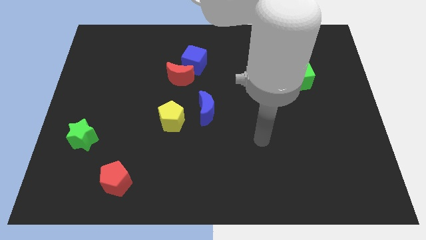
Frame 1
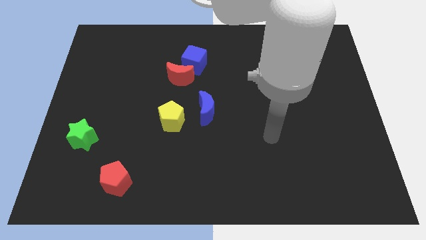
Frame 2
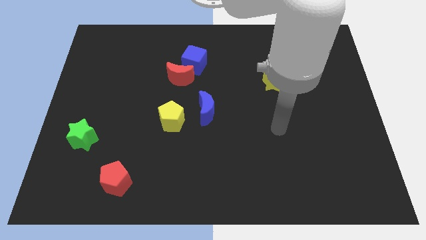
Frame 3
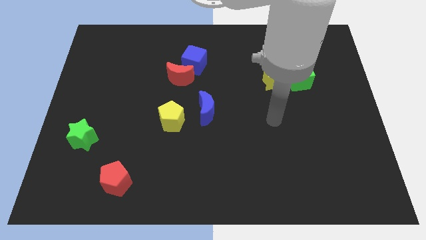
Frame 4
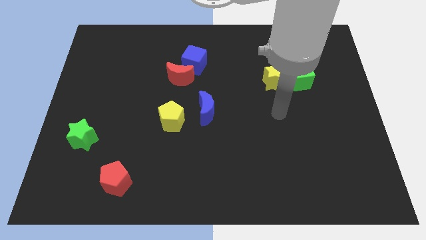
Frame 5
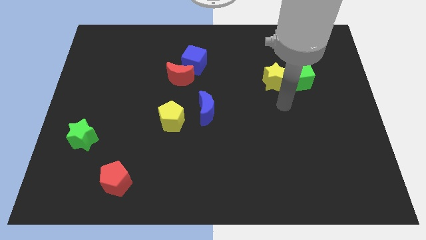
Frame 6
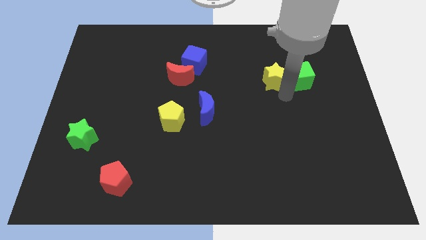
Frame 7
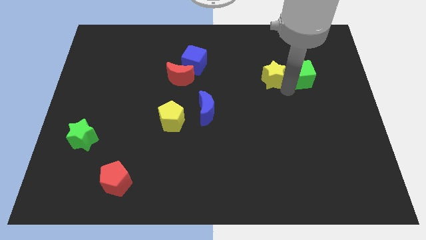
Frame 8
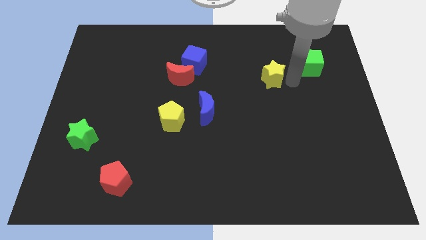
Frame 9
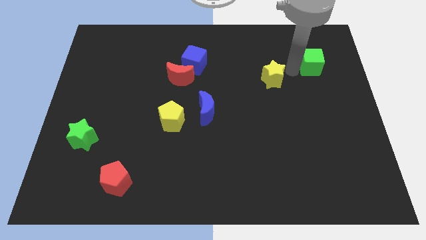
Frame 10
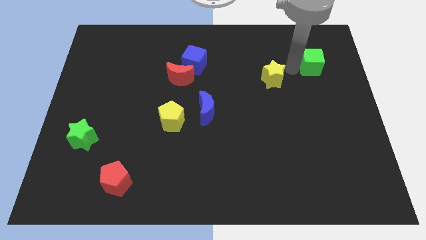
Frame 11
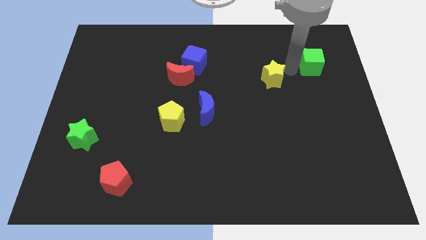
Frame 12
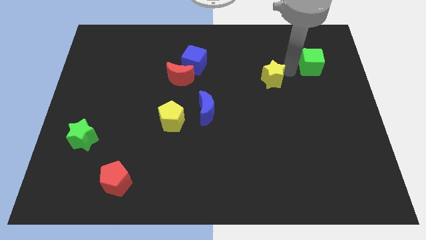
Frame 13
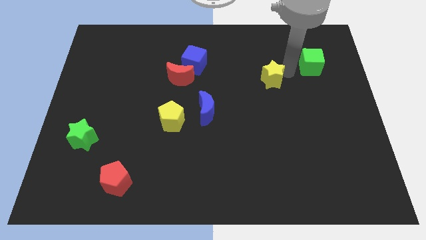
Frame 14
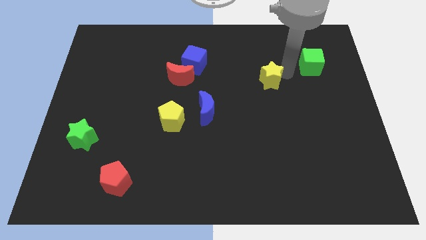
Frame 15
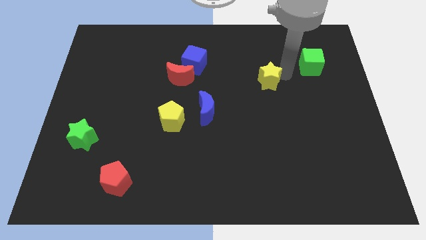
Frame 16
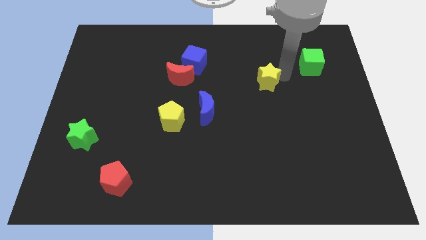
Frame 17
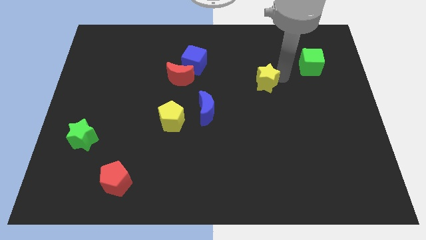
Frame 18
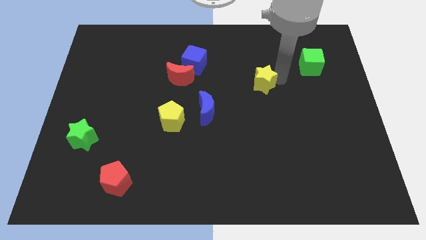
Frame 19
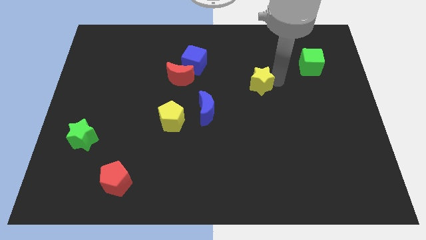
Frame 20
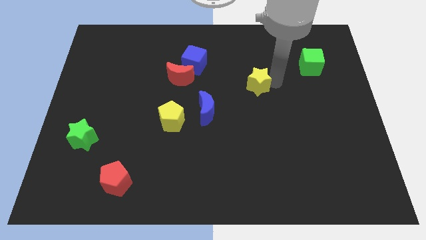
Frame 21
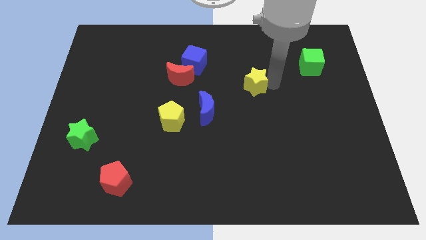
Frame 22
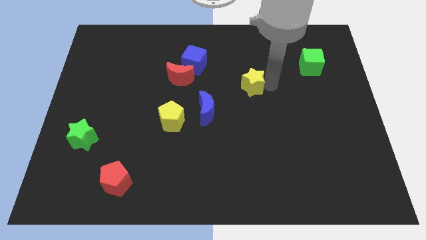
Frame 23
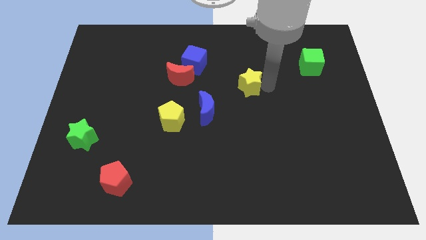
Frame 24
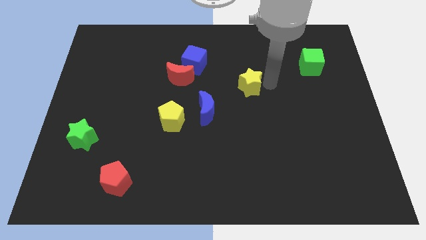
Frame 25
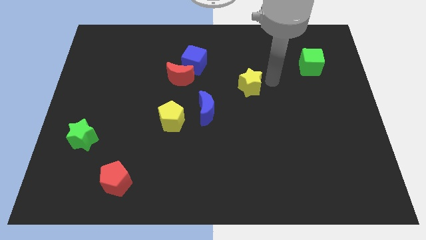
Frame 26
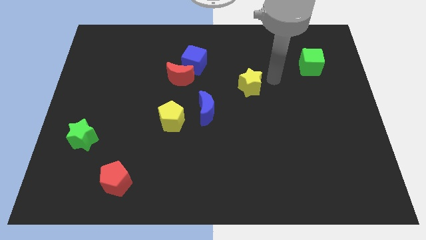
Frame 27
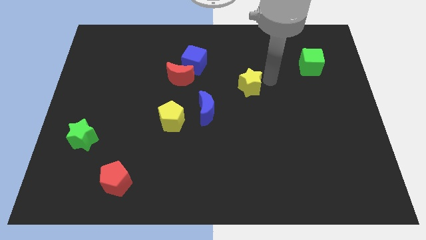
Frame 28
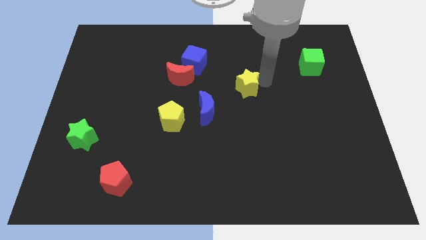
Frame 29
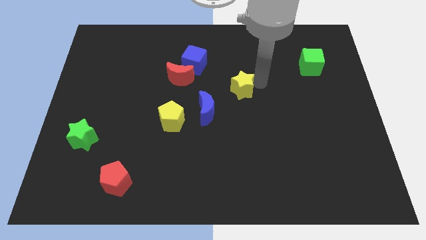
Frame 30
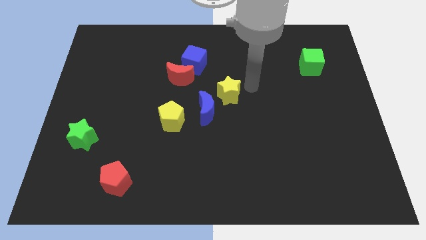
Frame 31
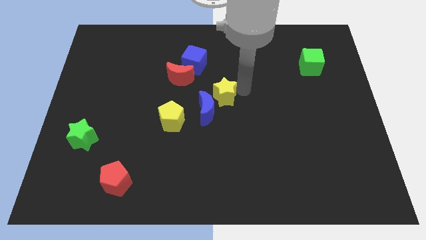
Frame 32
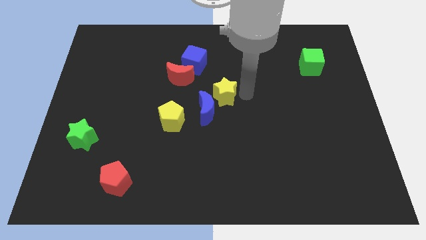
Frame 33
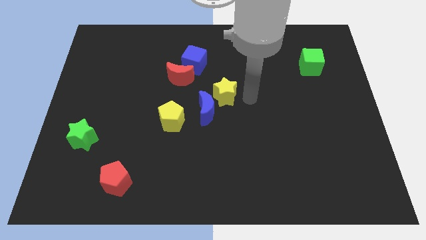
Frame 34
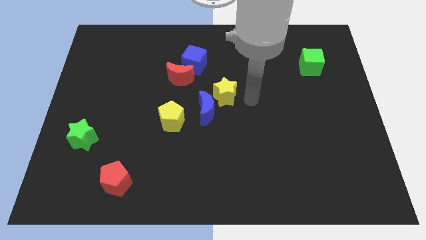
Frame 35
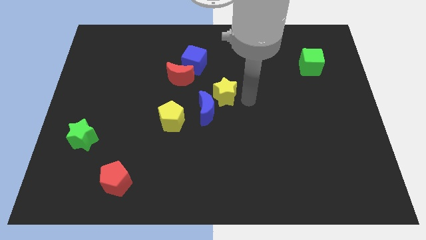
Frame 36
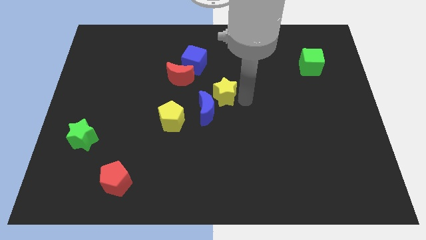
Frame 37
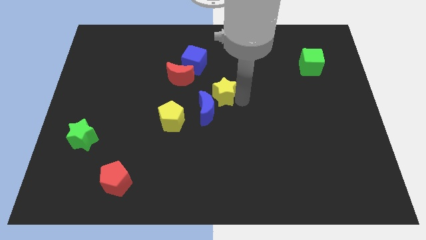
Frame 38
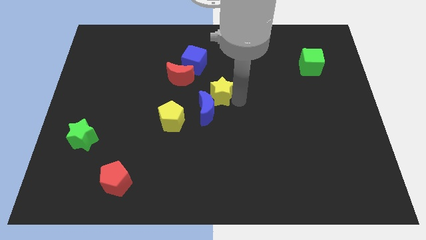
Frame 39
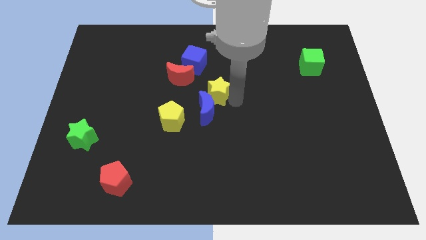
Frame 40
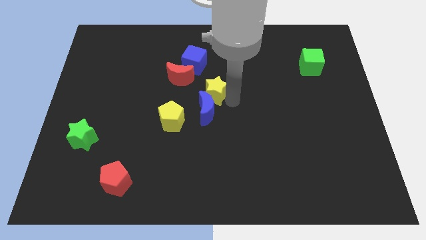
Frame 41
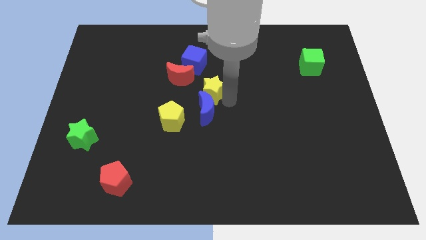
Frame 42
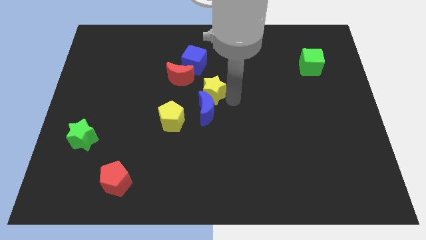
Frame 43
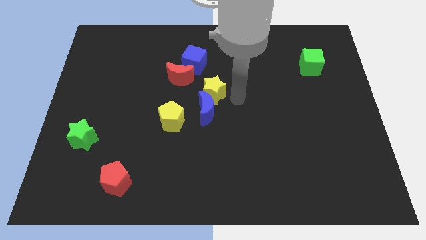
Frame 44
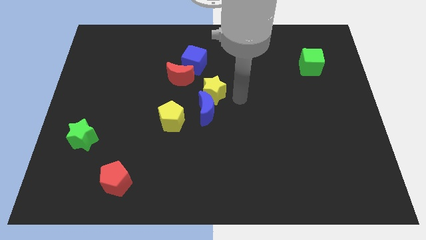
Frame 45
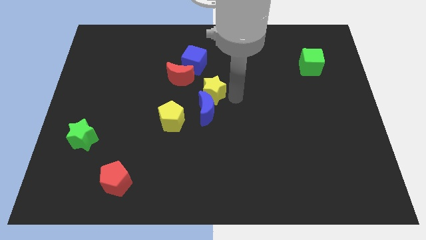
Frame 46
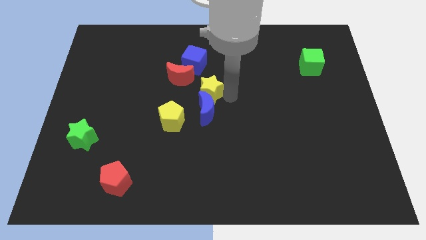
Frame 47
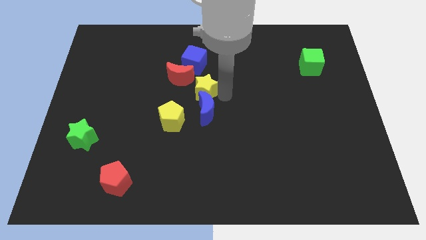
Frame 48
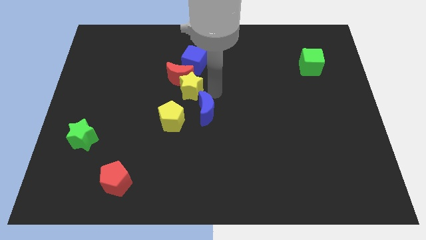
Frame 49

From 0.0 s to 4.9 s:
push the yellow star to the left

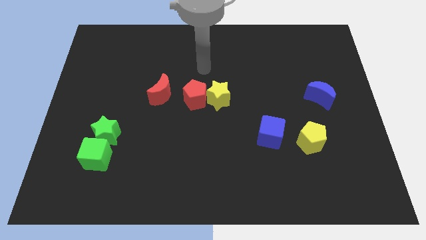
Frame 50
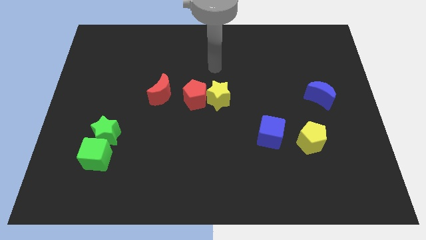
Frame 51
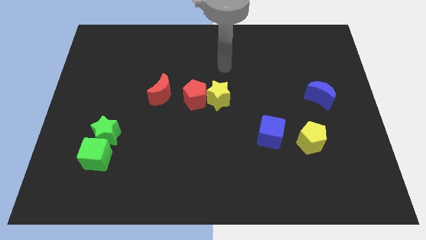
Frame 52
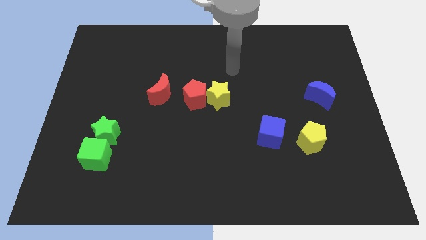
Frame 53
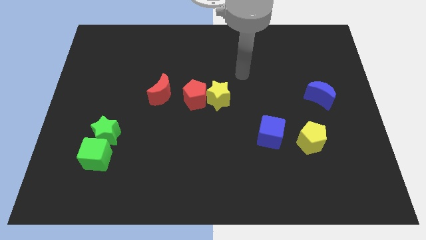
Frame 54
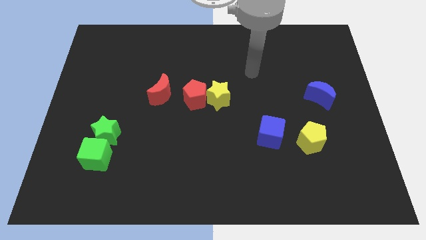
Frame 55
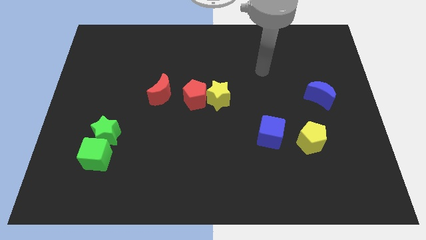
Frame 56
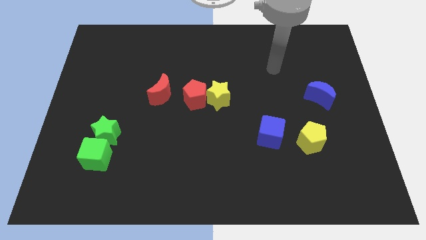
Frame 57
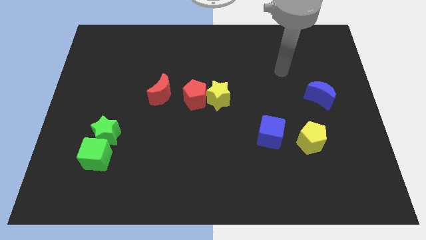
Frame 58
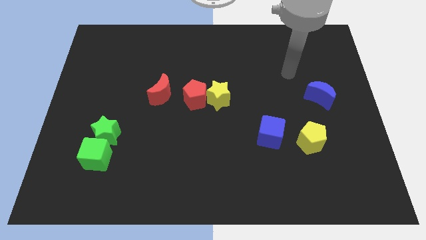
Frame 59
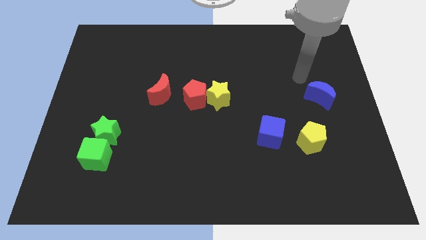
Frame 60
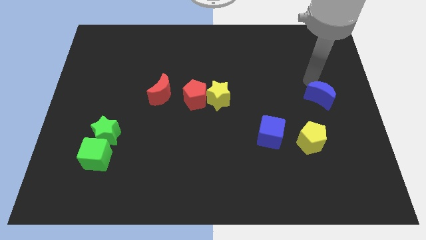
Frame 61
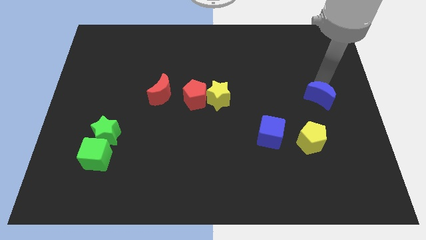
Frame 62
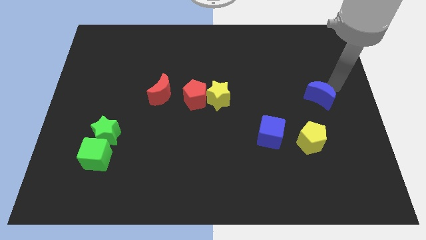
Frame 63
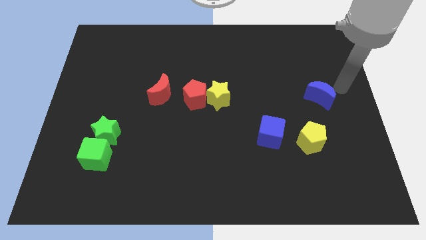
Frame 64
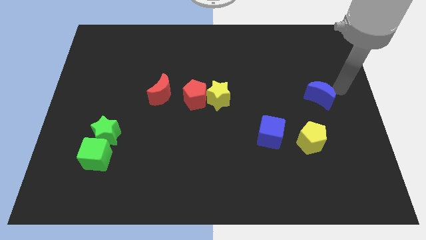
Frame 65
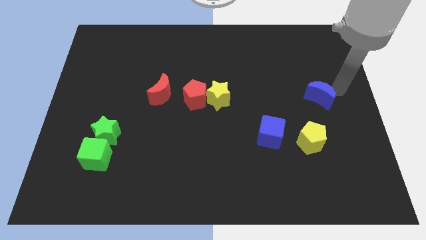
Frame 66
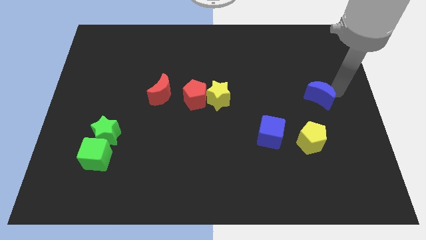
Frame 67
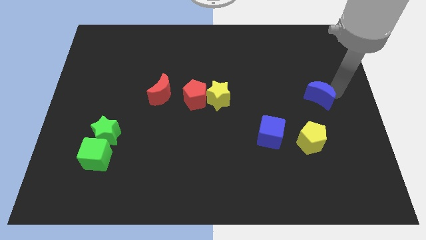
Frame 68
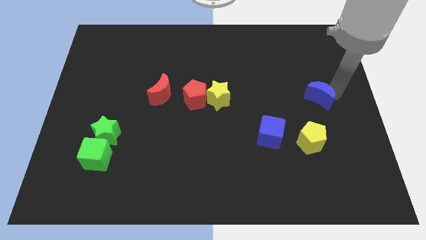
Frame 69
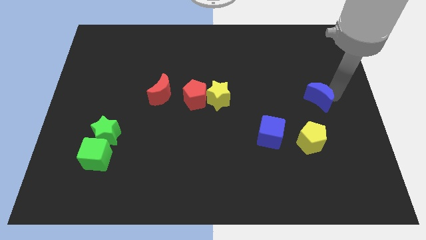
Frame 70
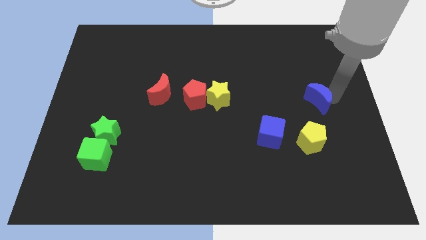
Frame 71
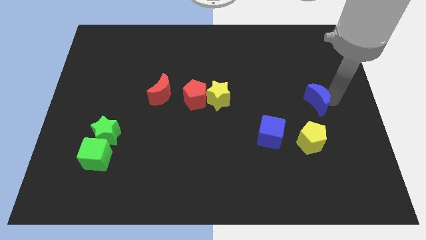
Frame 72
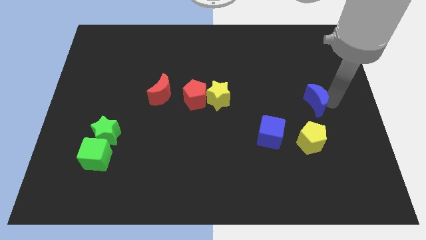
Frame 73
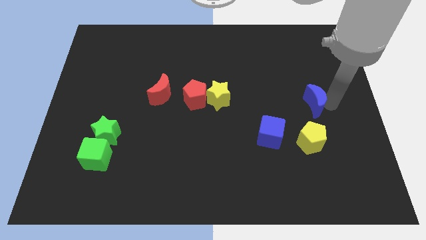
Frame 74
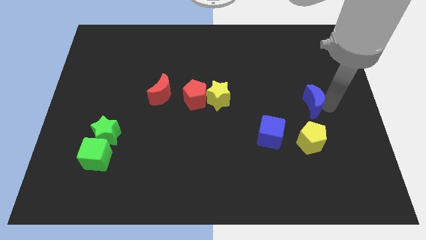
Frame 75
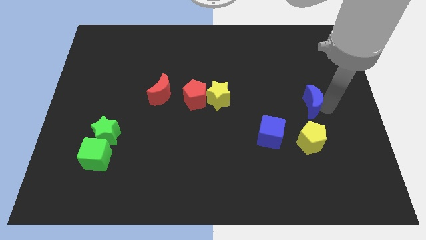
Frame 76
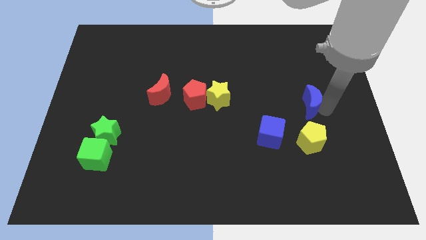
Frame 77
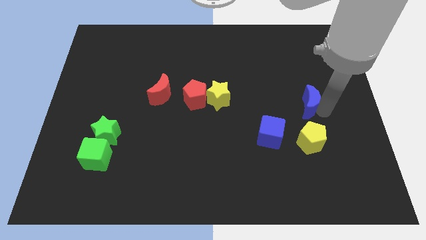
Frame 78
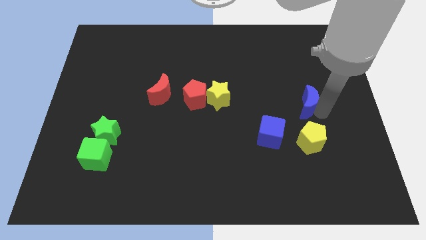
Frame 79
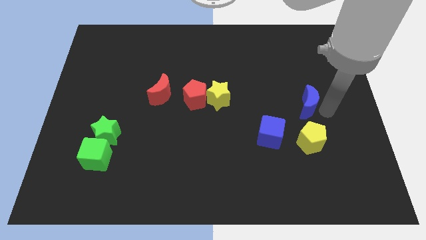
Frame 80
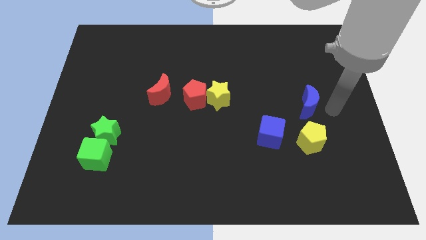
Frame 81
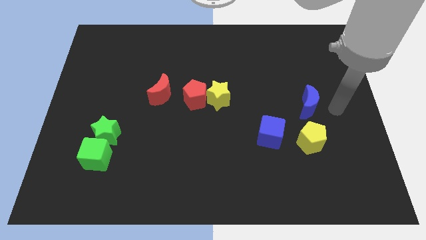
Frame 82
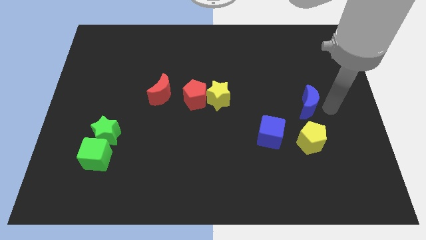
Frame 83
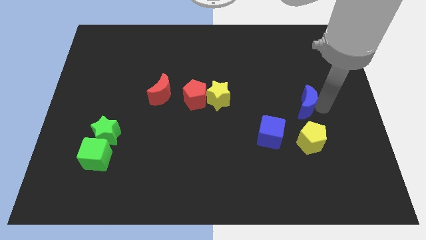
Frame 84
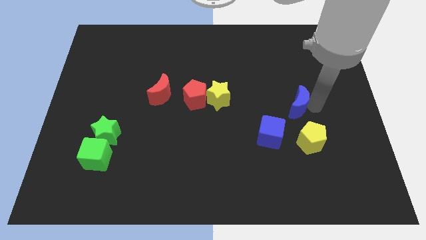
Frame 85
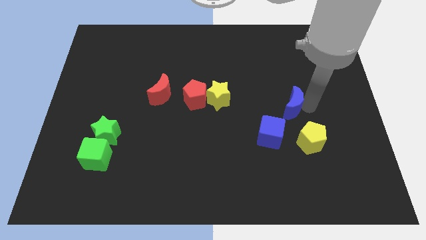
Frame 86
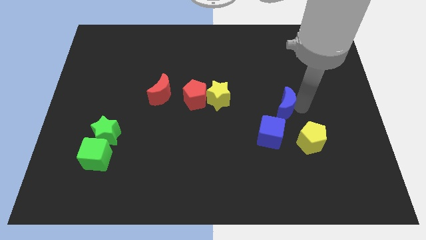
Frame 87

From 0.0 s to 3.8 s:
push the blue moon somewhat left
